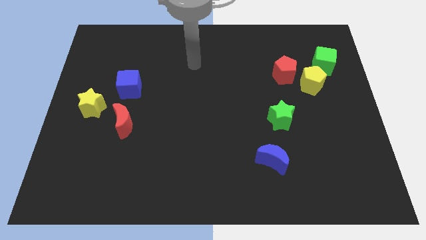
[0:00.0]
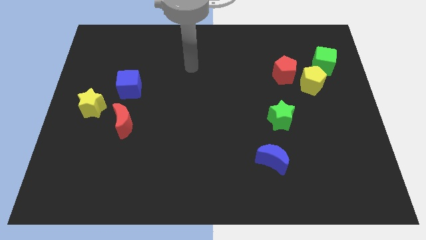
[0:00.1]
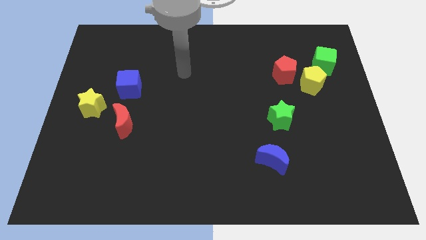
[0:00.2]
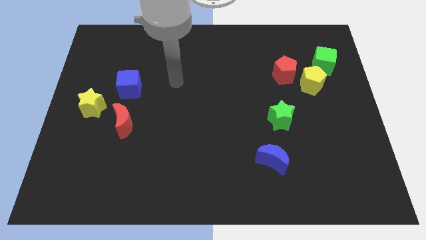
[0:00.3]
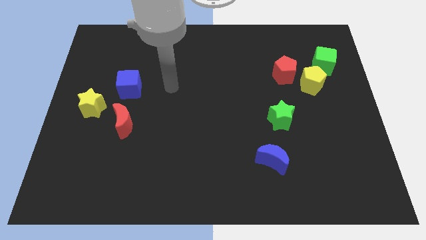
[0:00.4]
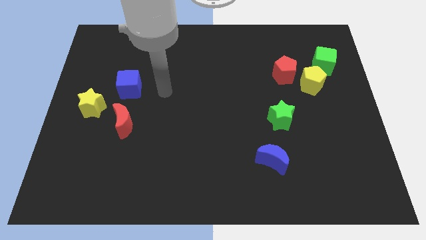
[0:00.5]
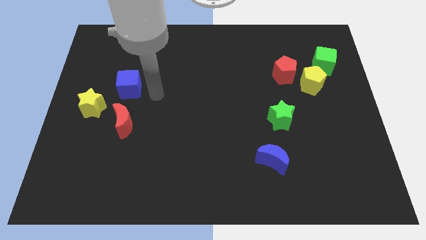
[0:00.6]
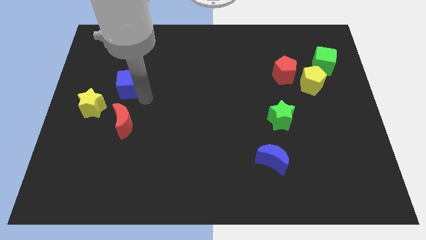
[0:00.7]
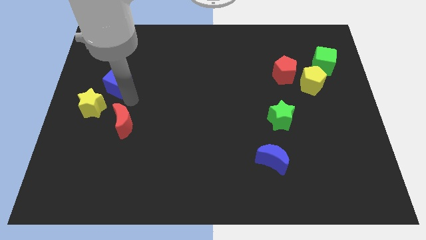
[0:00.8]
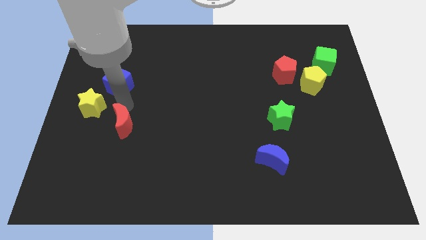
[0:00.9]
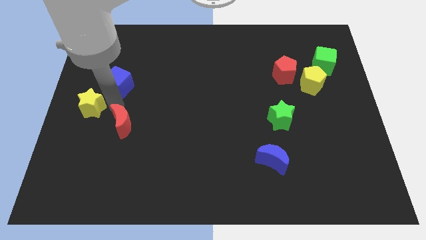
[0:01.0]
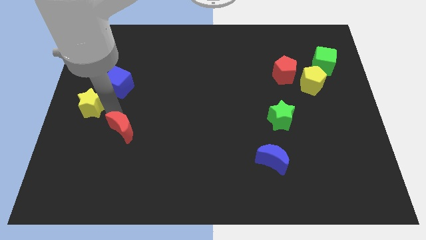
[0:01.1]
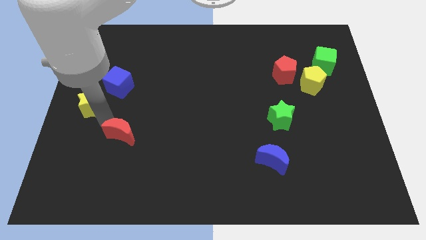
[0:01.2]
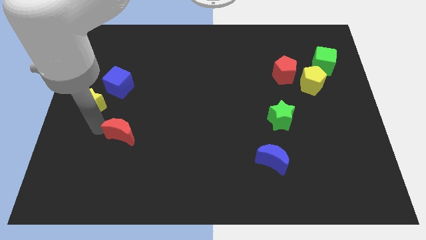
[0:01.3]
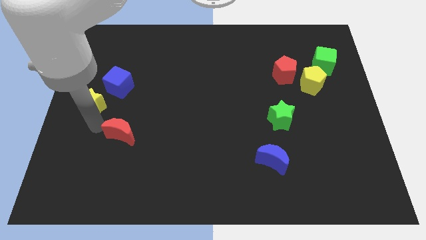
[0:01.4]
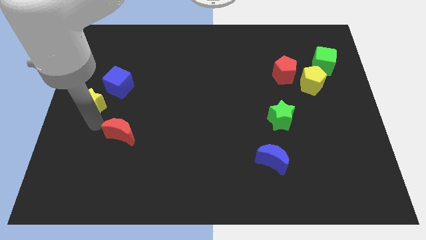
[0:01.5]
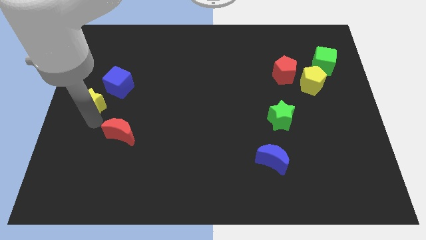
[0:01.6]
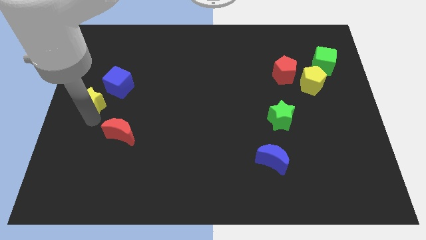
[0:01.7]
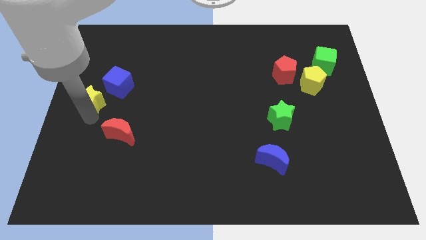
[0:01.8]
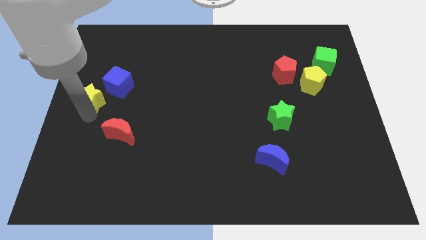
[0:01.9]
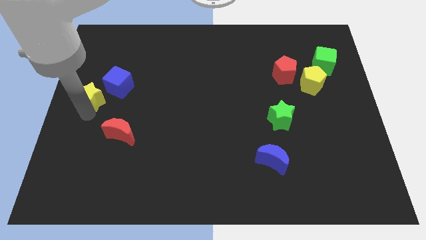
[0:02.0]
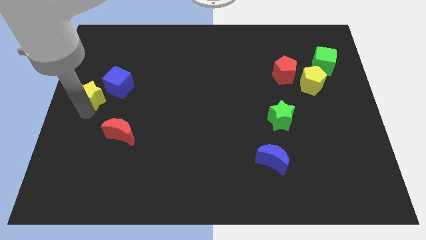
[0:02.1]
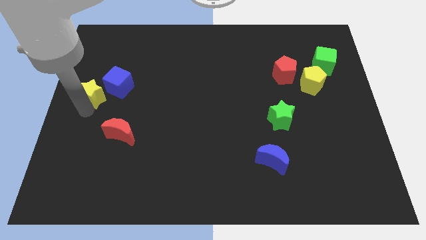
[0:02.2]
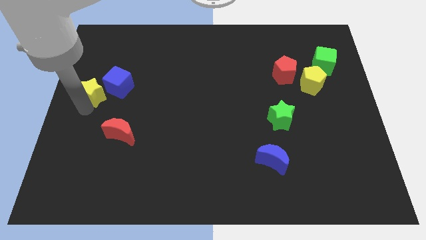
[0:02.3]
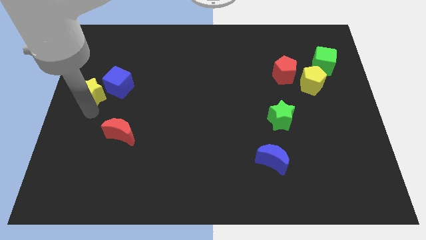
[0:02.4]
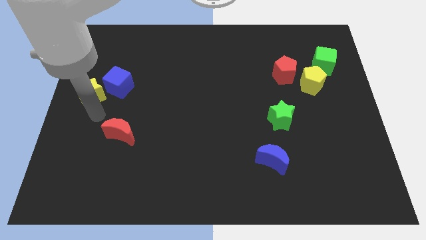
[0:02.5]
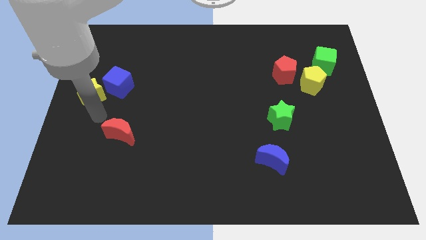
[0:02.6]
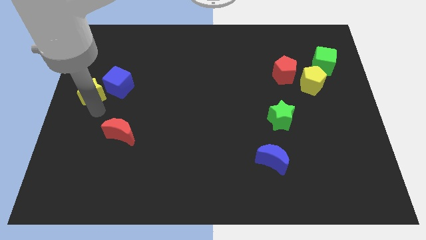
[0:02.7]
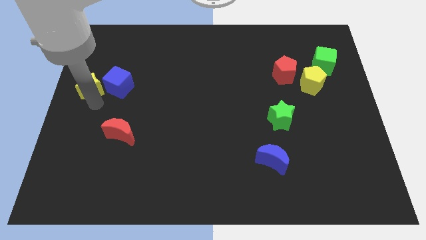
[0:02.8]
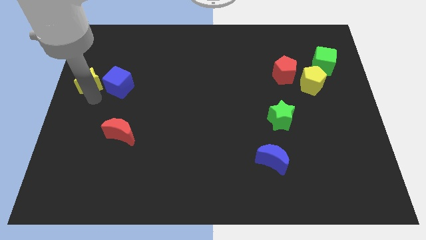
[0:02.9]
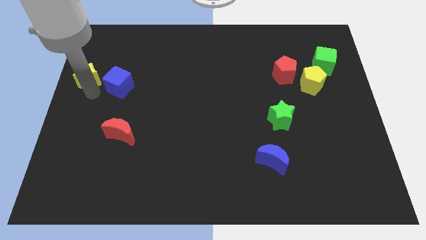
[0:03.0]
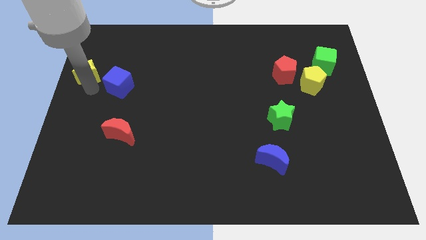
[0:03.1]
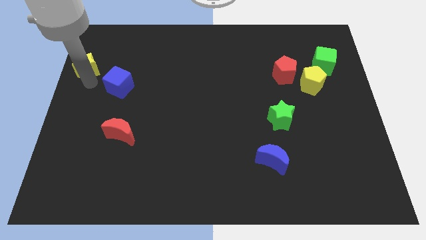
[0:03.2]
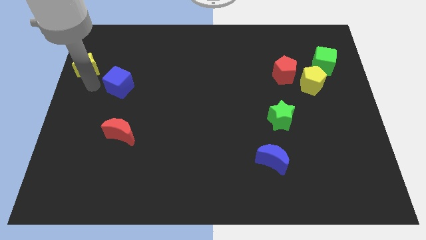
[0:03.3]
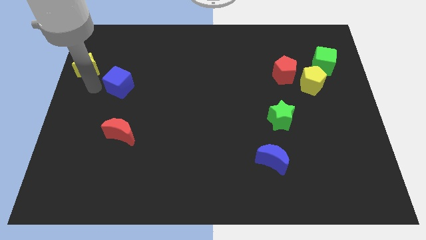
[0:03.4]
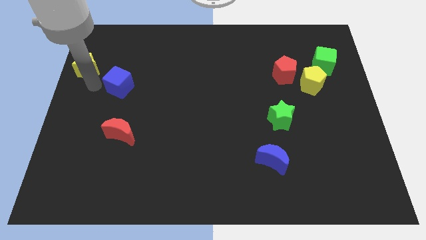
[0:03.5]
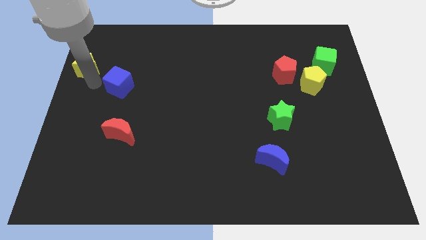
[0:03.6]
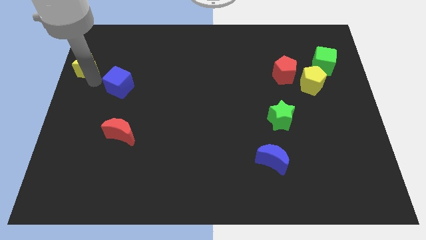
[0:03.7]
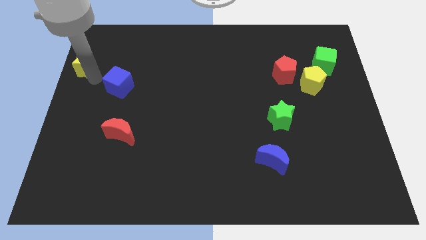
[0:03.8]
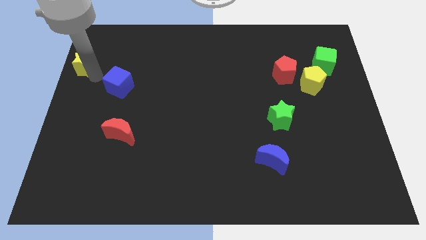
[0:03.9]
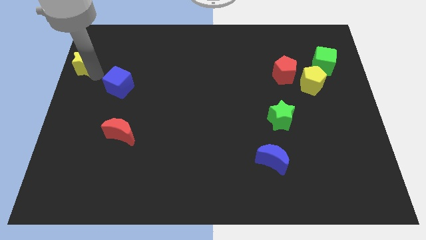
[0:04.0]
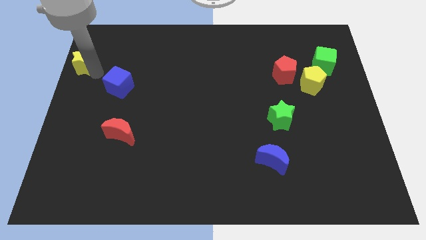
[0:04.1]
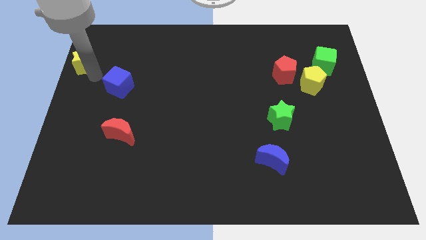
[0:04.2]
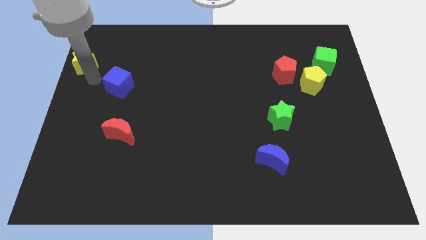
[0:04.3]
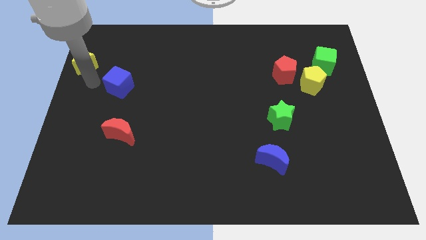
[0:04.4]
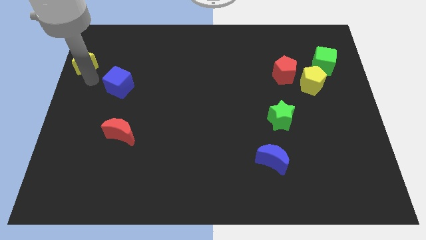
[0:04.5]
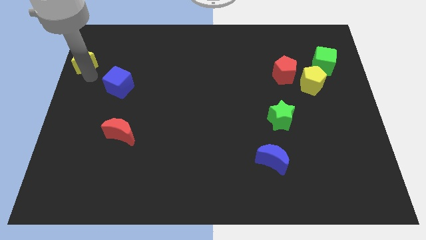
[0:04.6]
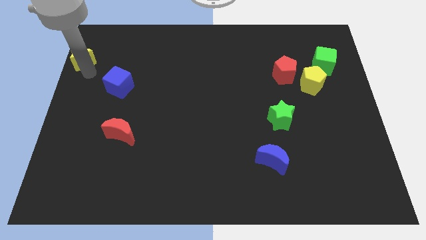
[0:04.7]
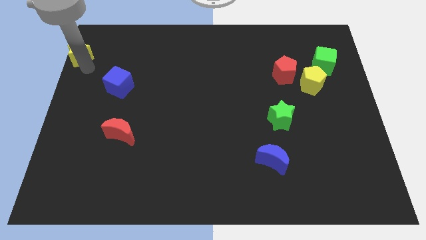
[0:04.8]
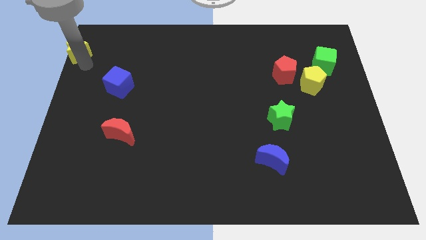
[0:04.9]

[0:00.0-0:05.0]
put the yellow star to the top left of the board

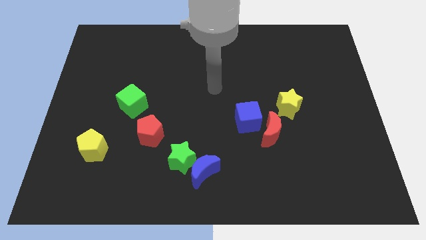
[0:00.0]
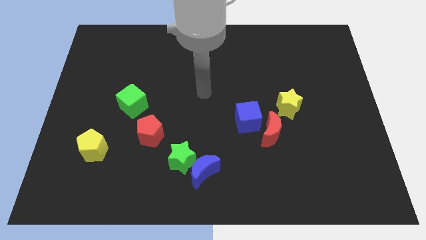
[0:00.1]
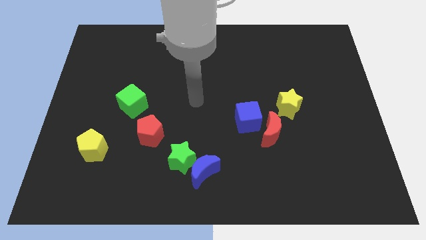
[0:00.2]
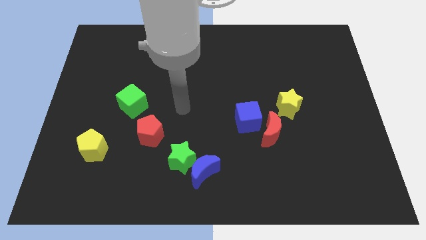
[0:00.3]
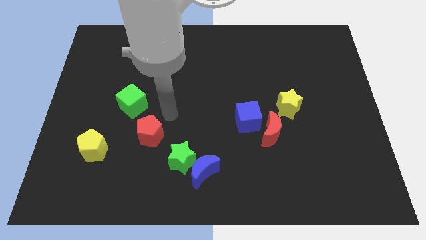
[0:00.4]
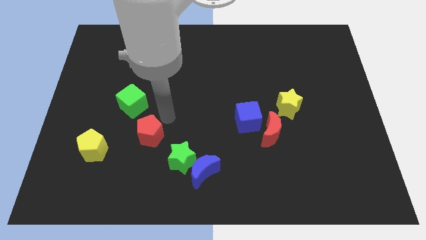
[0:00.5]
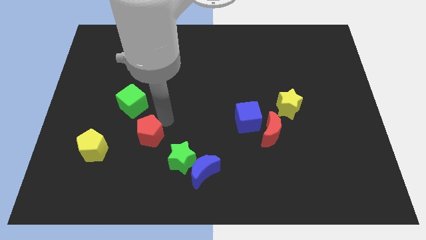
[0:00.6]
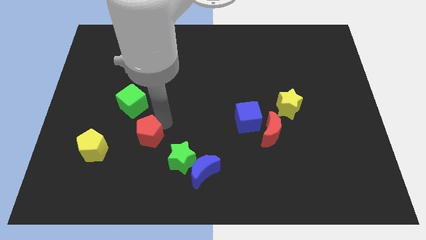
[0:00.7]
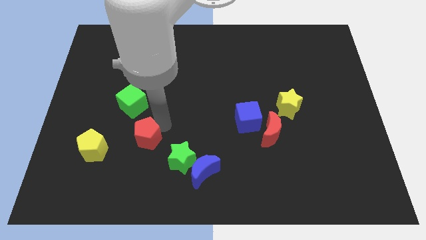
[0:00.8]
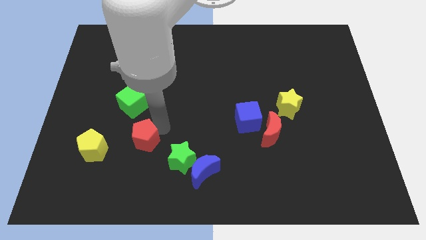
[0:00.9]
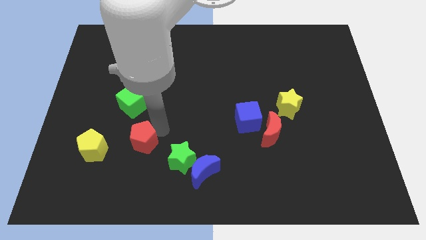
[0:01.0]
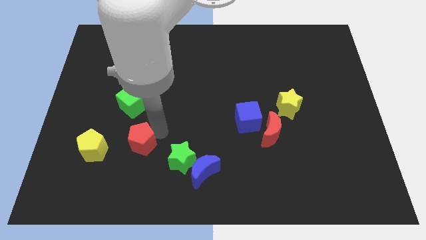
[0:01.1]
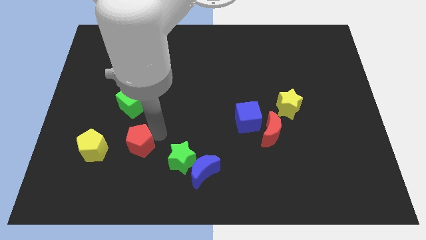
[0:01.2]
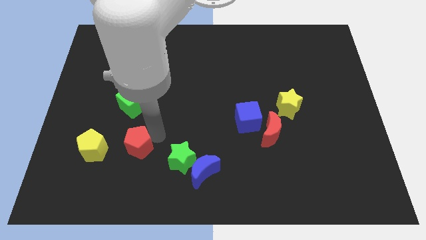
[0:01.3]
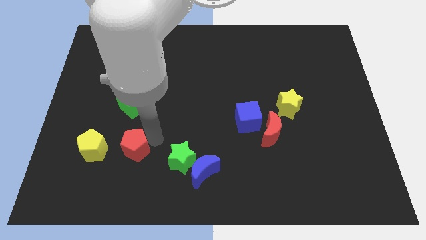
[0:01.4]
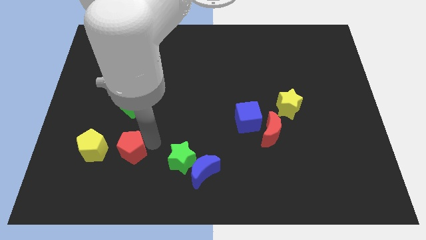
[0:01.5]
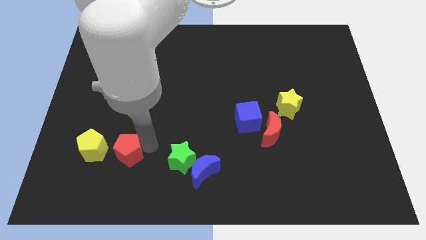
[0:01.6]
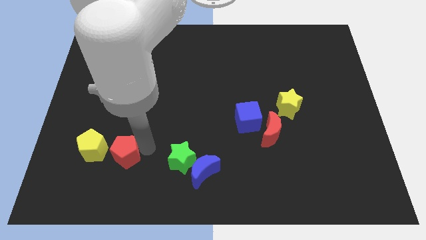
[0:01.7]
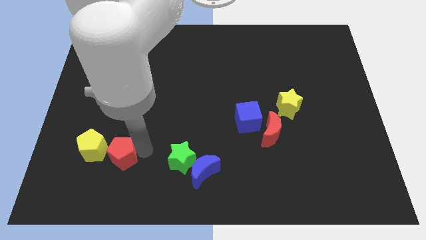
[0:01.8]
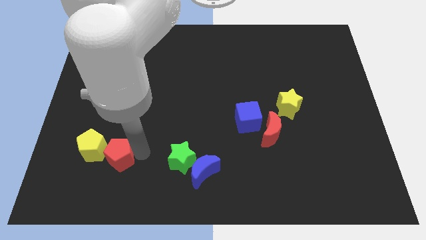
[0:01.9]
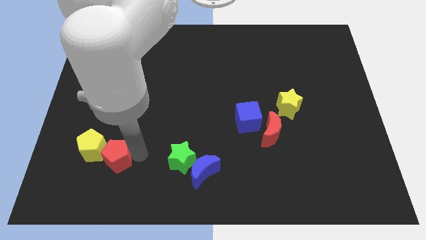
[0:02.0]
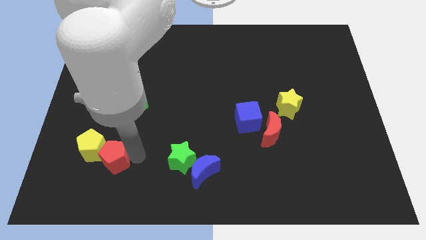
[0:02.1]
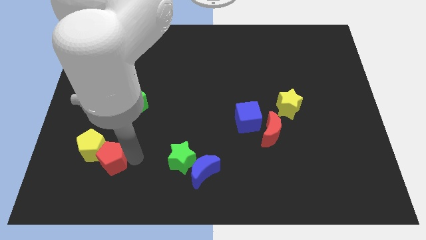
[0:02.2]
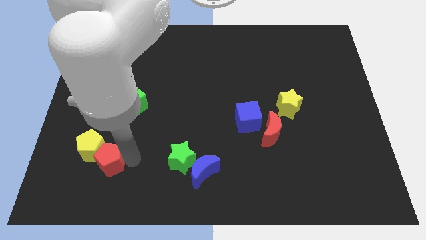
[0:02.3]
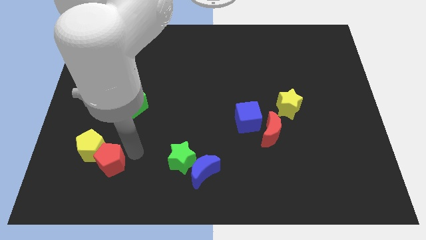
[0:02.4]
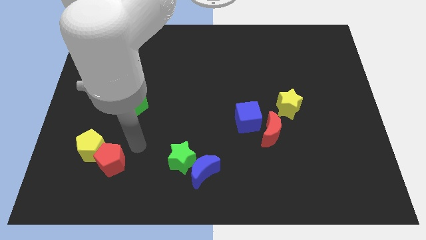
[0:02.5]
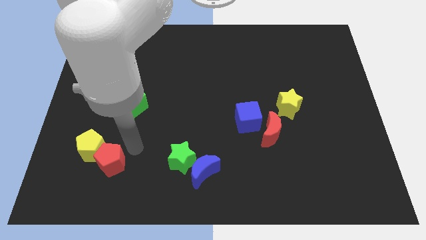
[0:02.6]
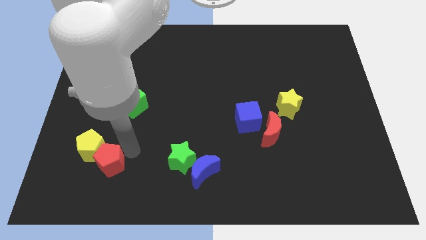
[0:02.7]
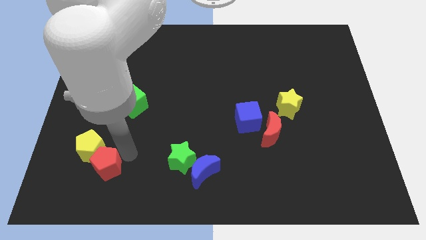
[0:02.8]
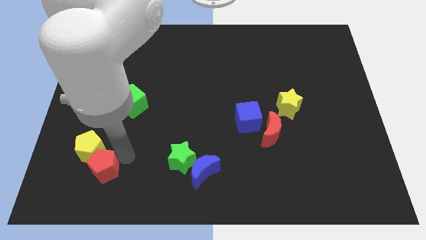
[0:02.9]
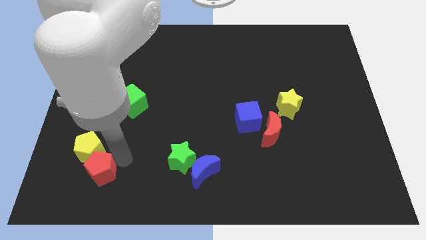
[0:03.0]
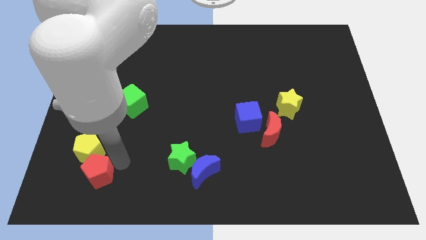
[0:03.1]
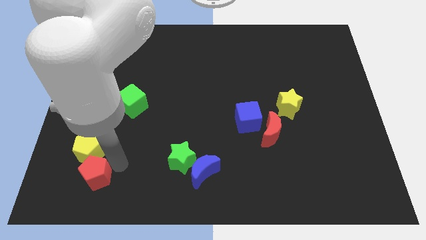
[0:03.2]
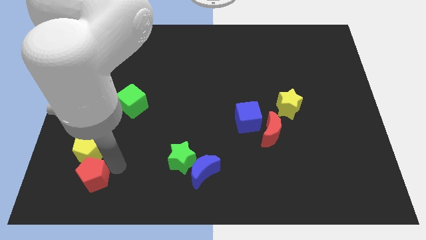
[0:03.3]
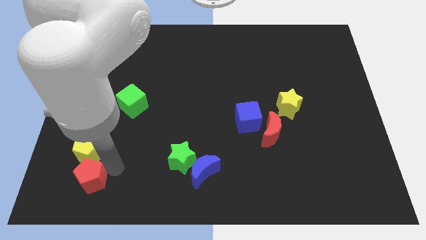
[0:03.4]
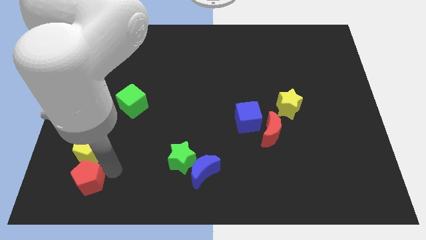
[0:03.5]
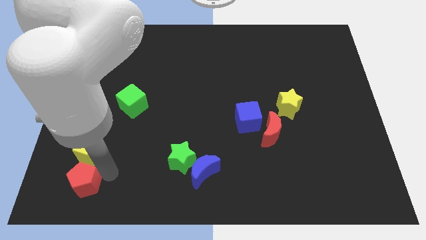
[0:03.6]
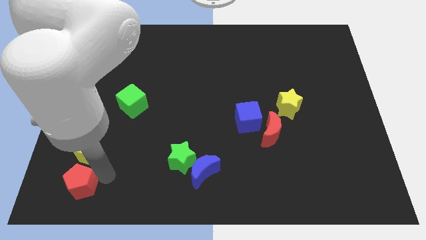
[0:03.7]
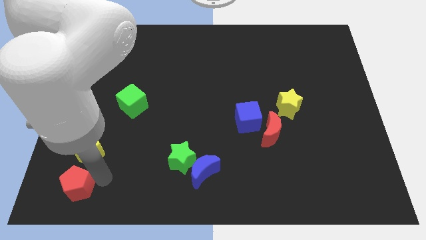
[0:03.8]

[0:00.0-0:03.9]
slide the red pentagon to the bottom left corner
